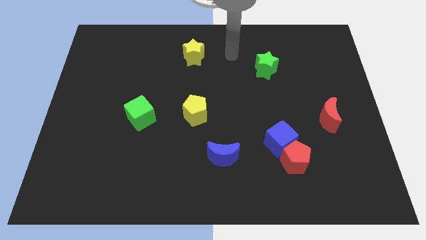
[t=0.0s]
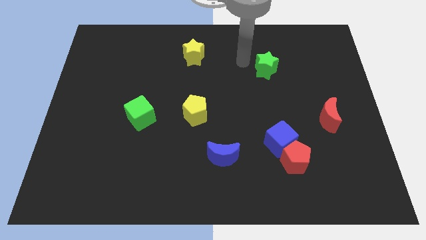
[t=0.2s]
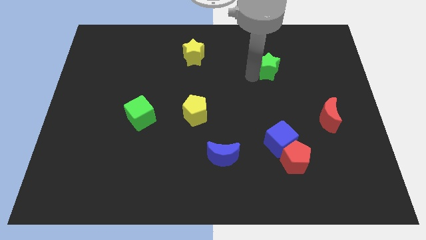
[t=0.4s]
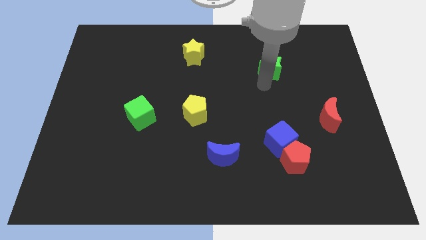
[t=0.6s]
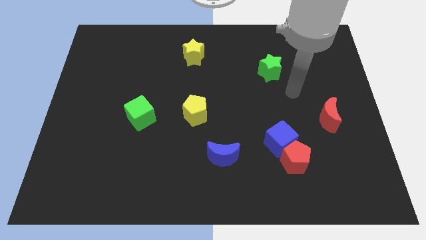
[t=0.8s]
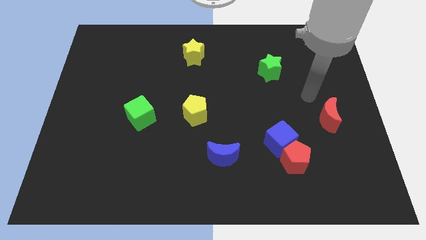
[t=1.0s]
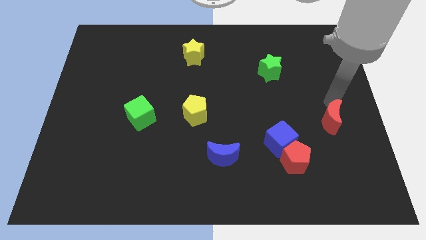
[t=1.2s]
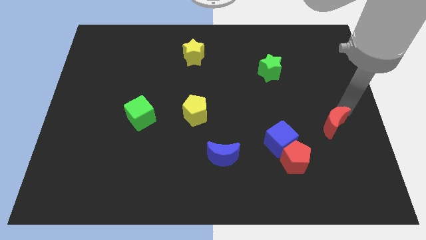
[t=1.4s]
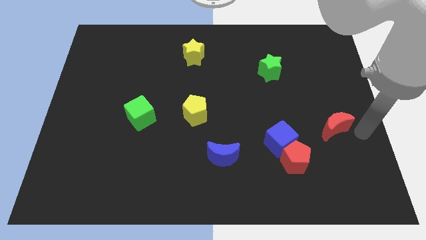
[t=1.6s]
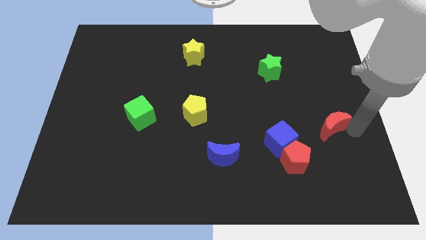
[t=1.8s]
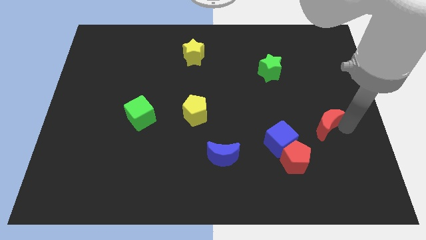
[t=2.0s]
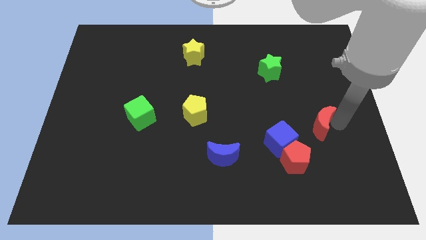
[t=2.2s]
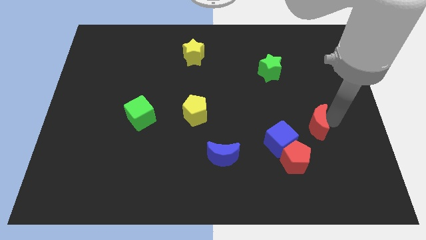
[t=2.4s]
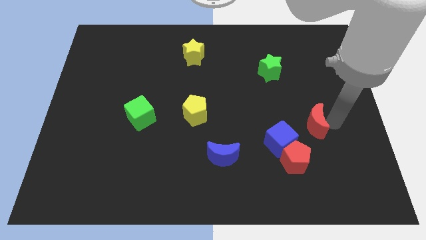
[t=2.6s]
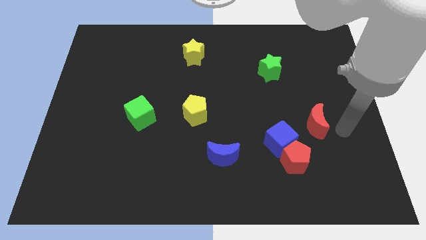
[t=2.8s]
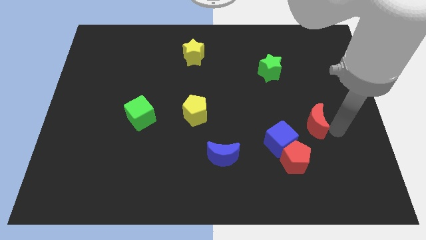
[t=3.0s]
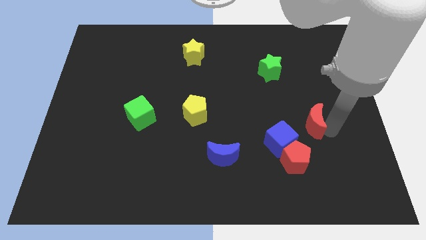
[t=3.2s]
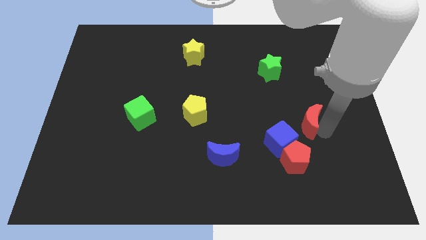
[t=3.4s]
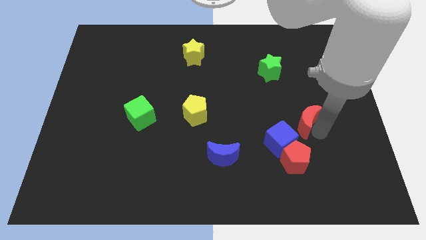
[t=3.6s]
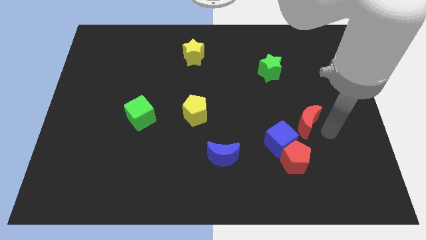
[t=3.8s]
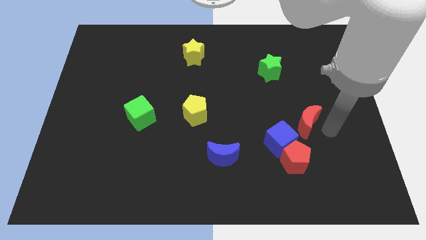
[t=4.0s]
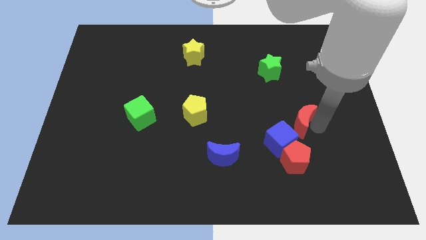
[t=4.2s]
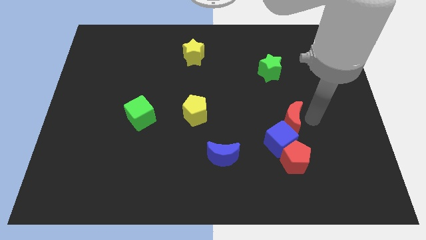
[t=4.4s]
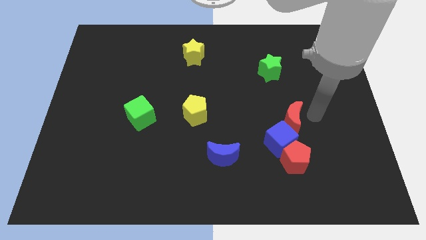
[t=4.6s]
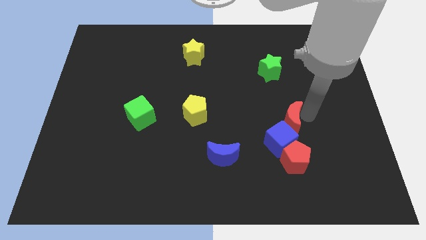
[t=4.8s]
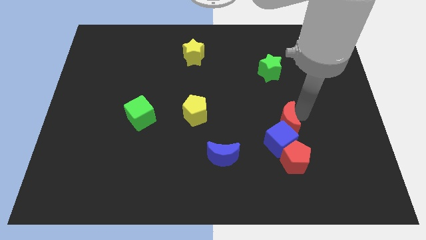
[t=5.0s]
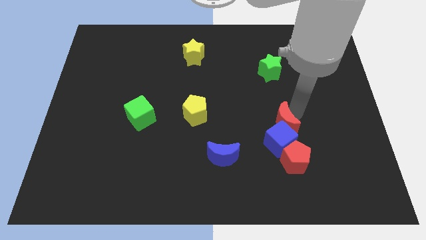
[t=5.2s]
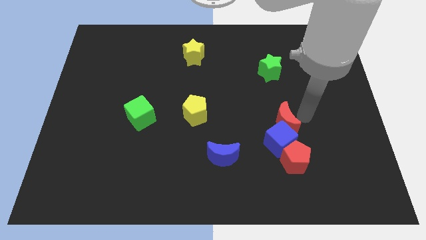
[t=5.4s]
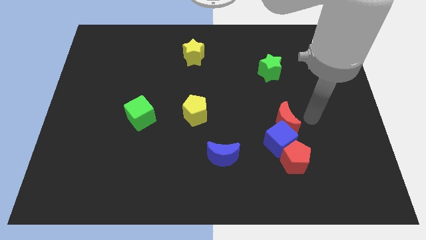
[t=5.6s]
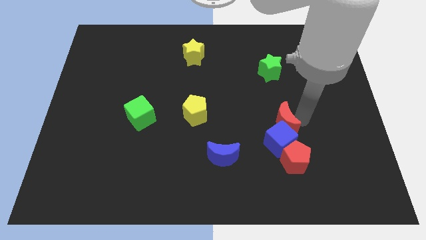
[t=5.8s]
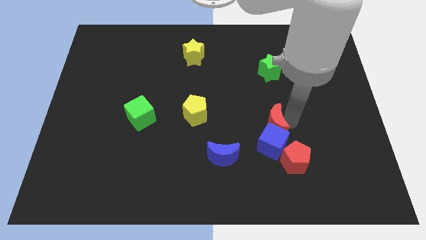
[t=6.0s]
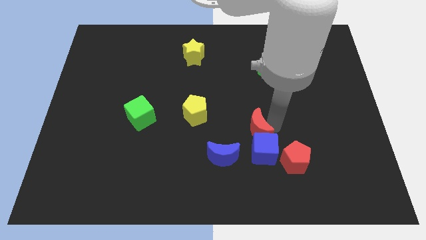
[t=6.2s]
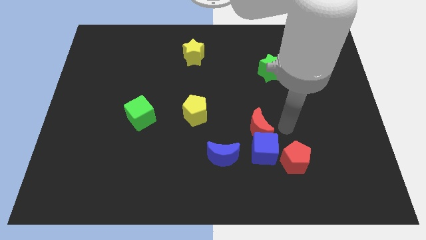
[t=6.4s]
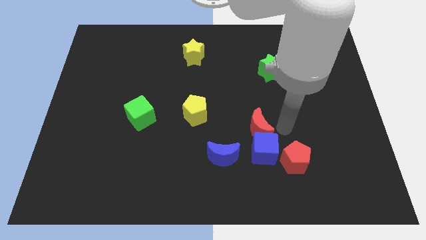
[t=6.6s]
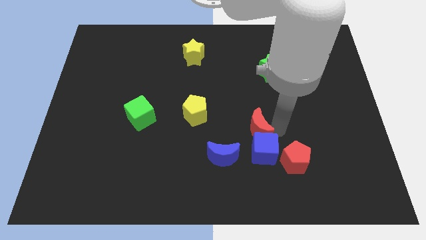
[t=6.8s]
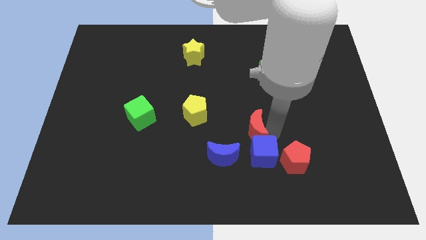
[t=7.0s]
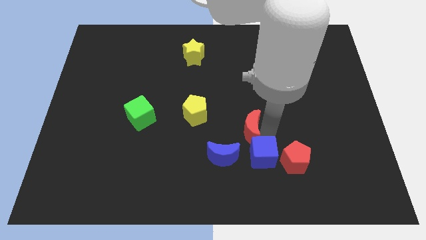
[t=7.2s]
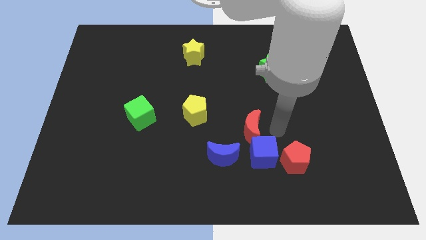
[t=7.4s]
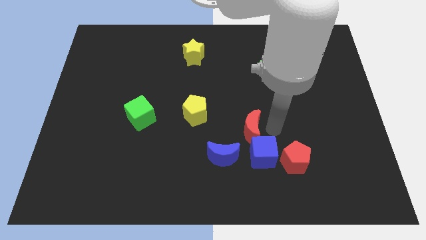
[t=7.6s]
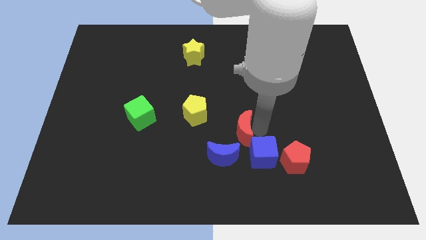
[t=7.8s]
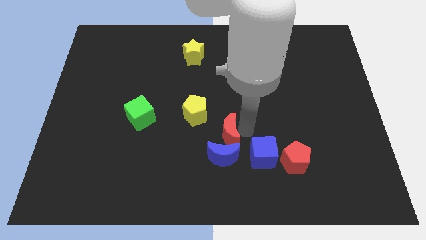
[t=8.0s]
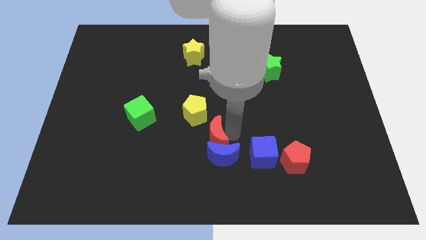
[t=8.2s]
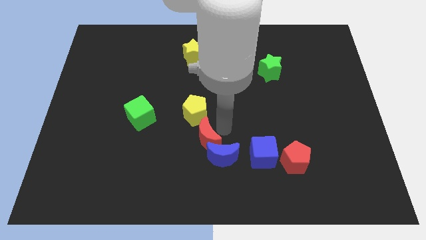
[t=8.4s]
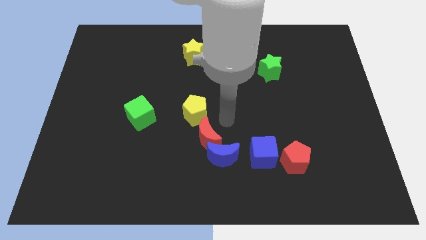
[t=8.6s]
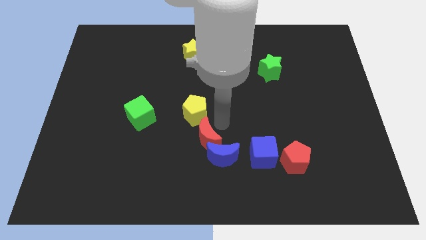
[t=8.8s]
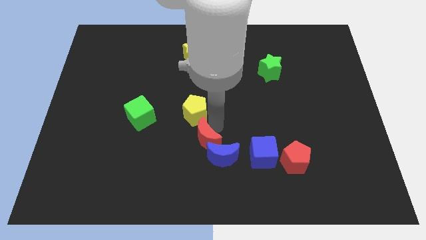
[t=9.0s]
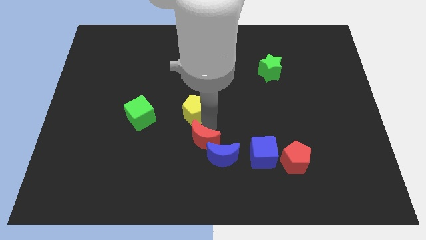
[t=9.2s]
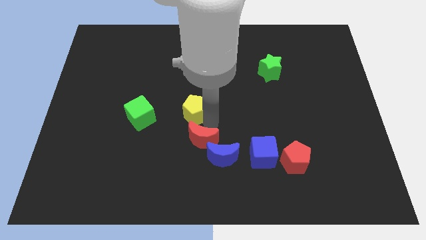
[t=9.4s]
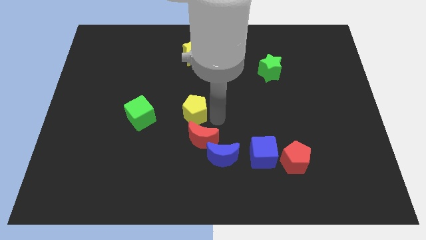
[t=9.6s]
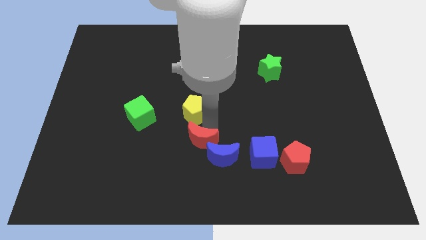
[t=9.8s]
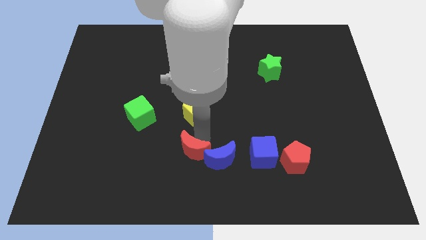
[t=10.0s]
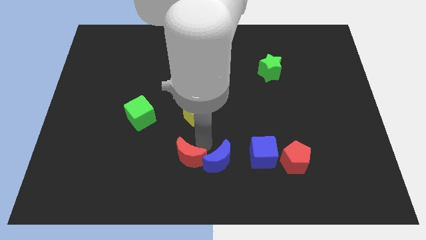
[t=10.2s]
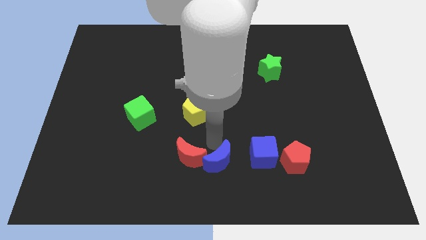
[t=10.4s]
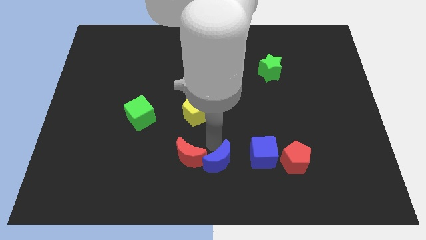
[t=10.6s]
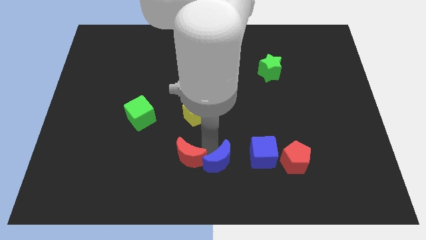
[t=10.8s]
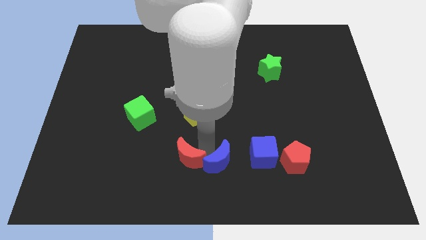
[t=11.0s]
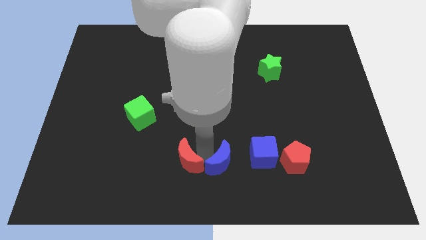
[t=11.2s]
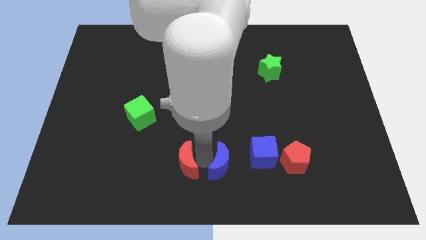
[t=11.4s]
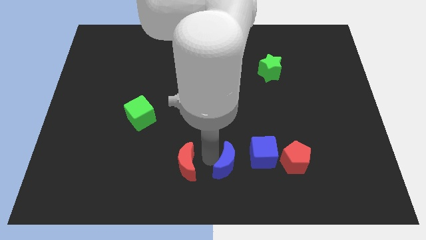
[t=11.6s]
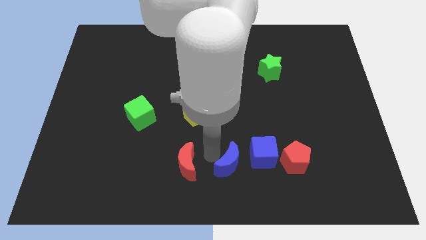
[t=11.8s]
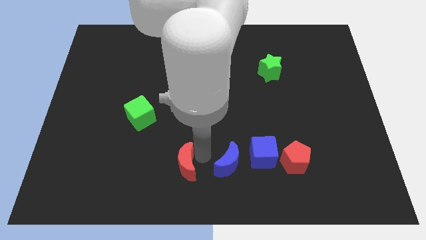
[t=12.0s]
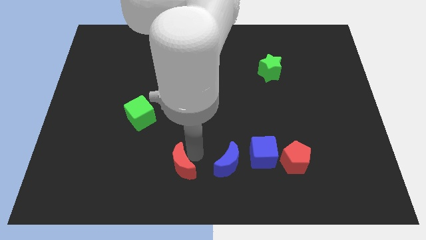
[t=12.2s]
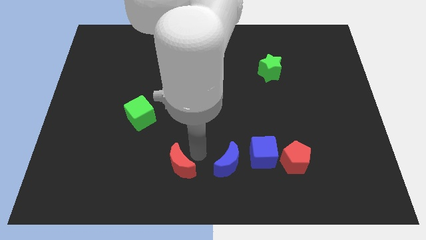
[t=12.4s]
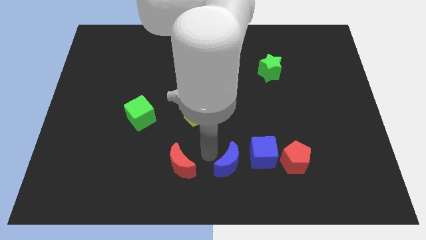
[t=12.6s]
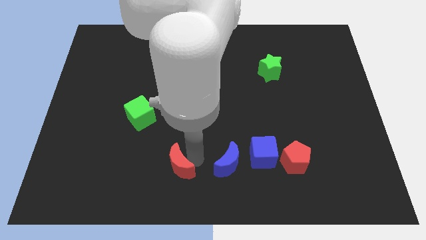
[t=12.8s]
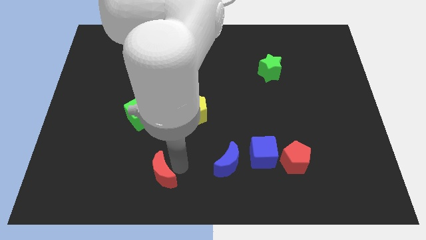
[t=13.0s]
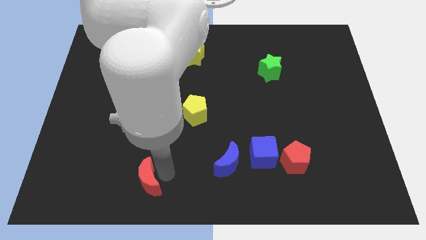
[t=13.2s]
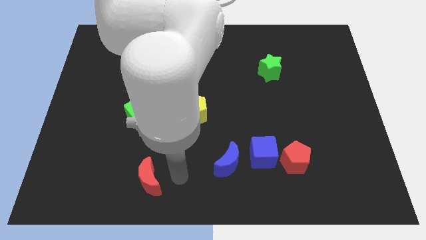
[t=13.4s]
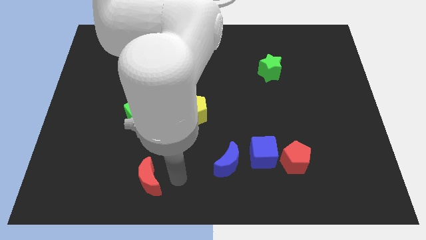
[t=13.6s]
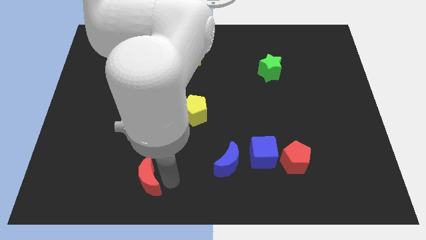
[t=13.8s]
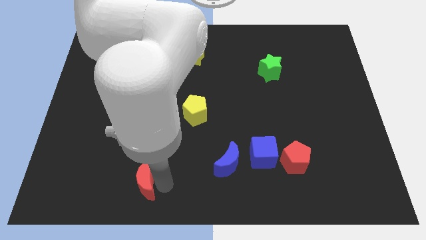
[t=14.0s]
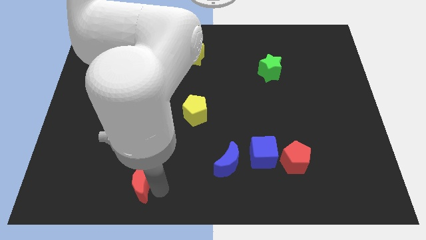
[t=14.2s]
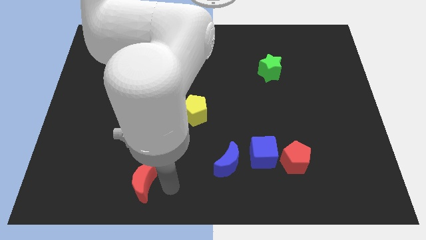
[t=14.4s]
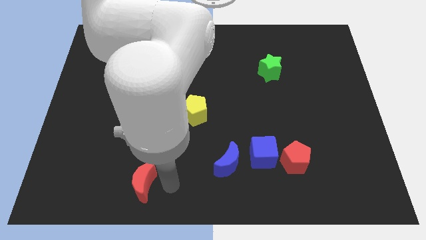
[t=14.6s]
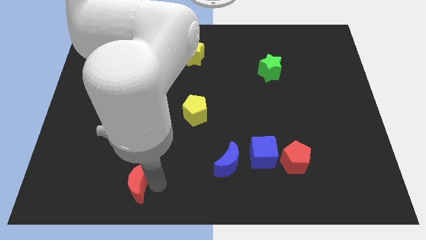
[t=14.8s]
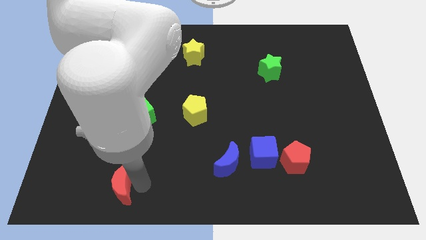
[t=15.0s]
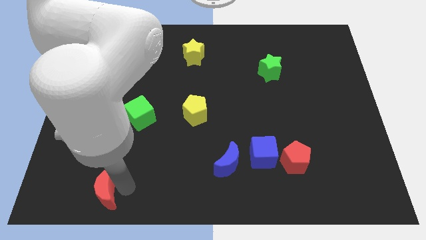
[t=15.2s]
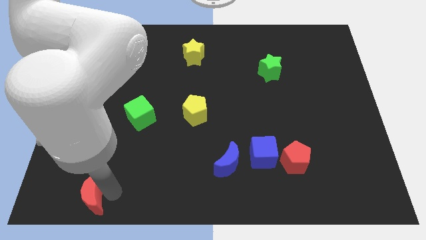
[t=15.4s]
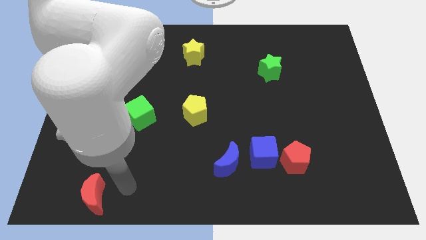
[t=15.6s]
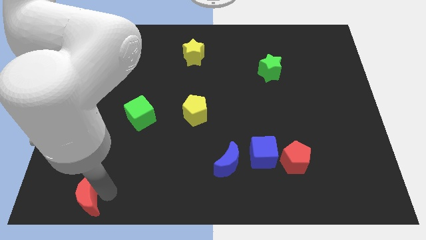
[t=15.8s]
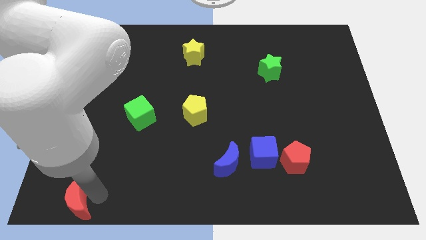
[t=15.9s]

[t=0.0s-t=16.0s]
move the red moon to the bottom left
